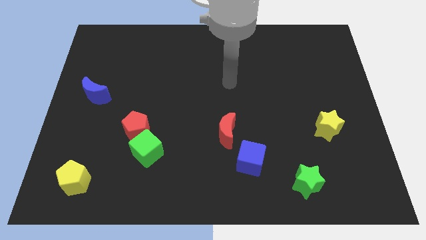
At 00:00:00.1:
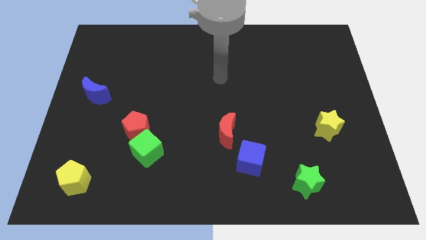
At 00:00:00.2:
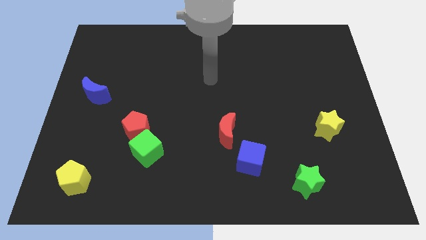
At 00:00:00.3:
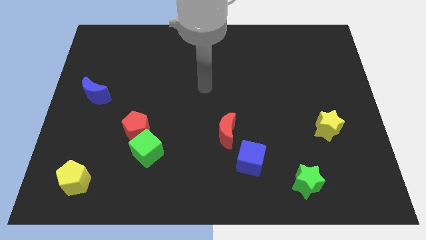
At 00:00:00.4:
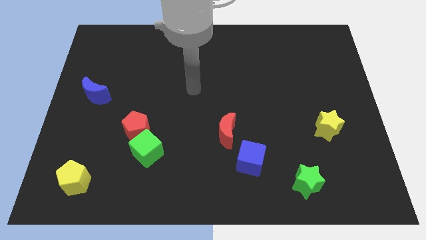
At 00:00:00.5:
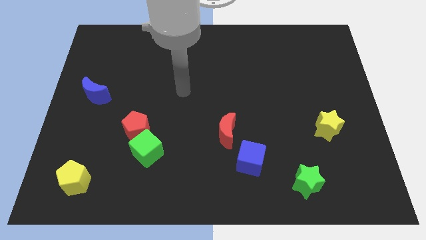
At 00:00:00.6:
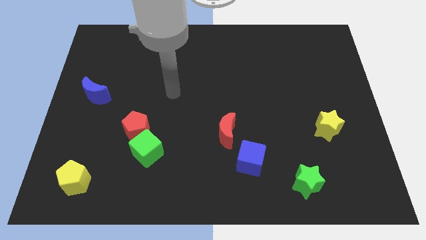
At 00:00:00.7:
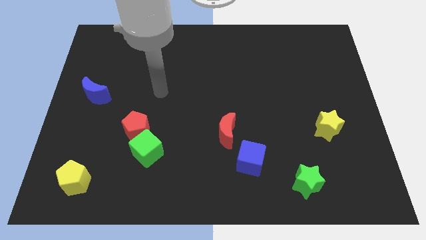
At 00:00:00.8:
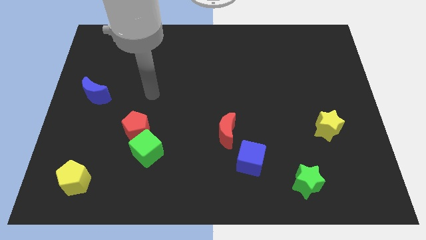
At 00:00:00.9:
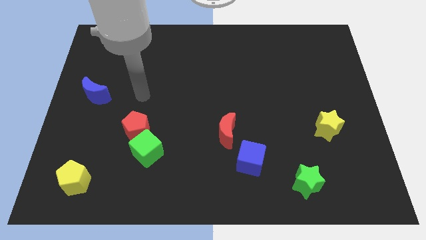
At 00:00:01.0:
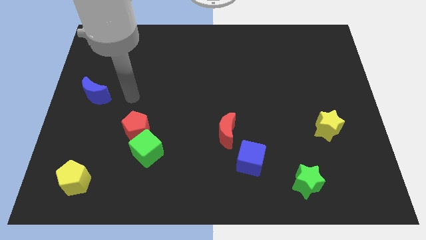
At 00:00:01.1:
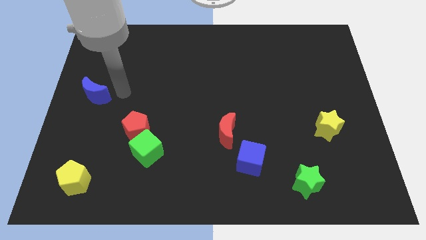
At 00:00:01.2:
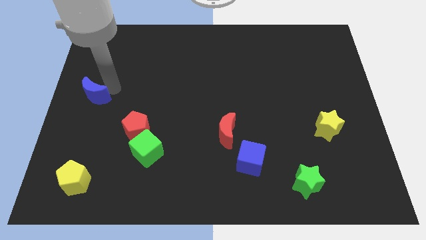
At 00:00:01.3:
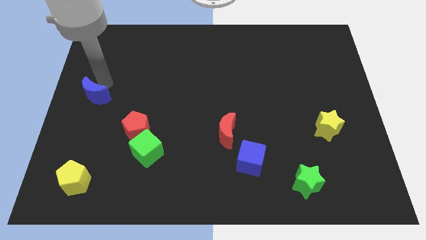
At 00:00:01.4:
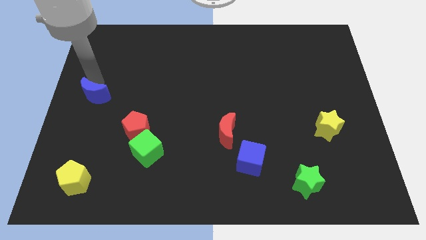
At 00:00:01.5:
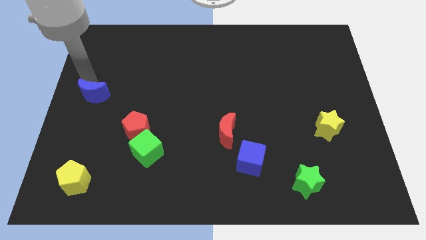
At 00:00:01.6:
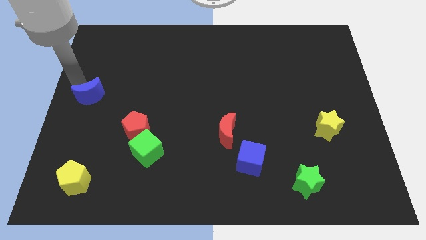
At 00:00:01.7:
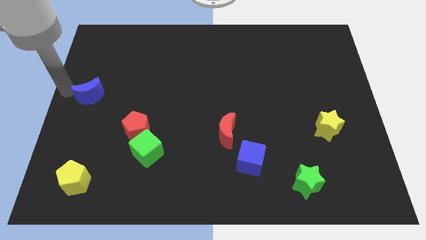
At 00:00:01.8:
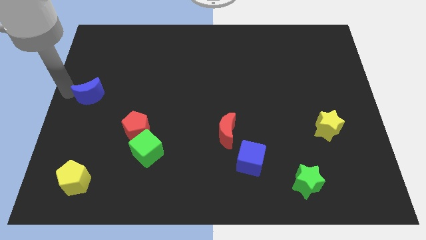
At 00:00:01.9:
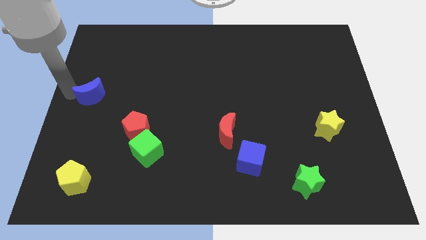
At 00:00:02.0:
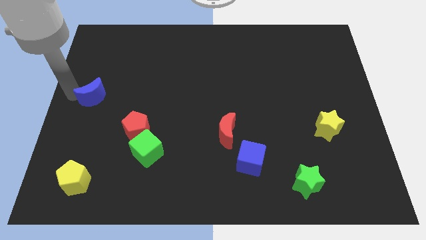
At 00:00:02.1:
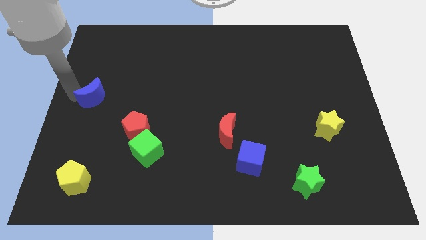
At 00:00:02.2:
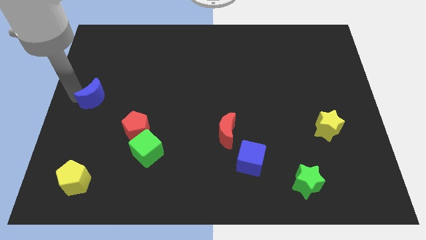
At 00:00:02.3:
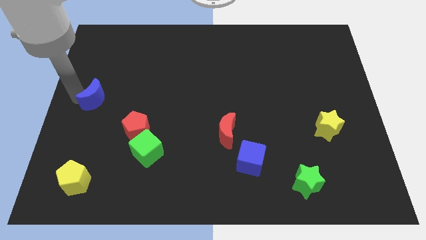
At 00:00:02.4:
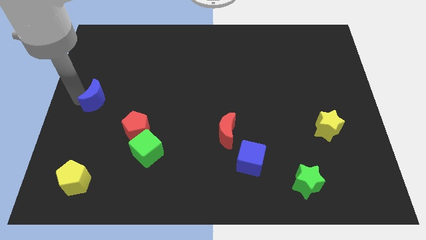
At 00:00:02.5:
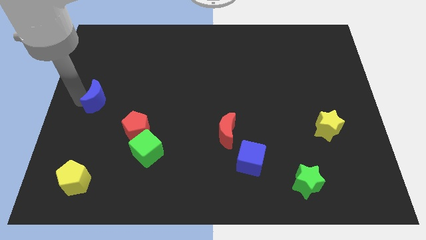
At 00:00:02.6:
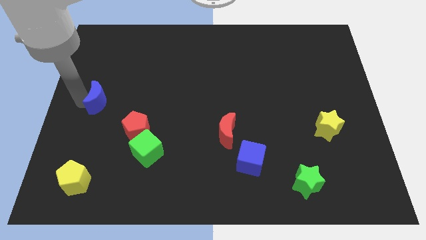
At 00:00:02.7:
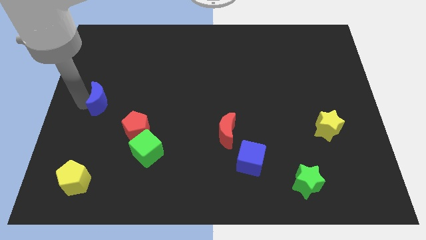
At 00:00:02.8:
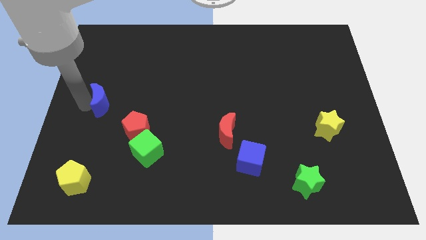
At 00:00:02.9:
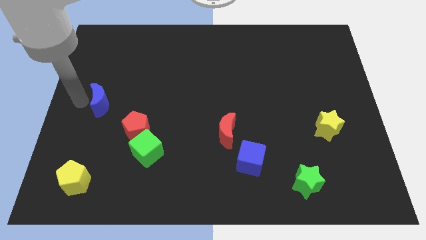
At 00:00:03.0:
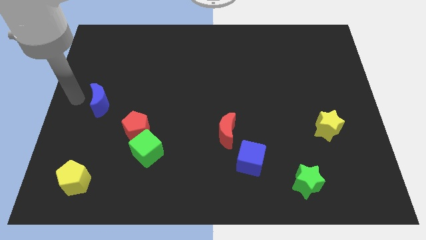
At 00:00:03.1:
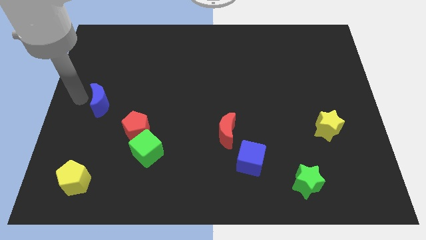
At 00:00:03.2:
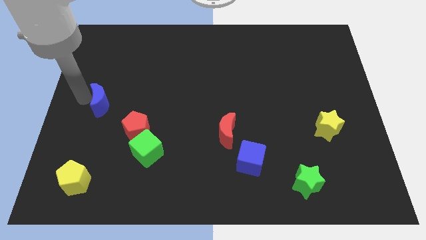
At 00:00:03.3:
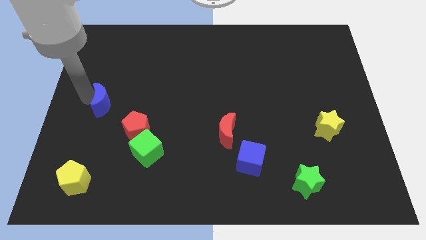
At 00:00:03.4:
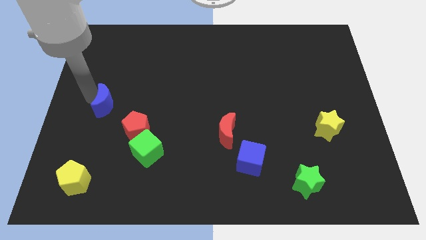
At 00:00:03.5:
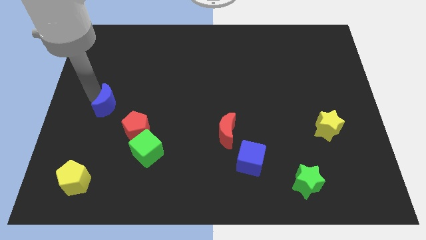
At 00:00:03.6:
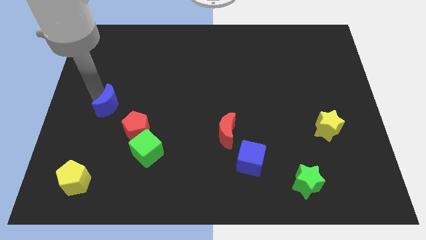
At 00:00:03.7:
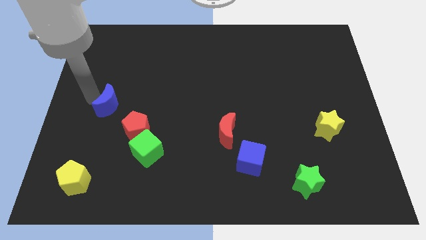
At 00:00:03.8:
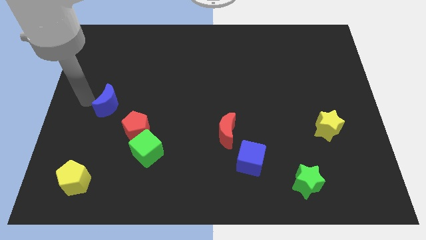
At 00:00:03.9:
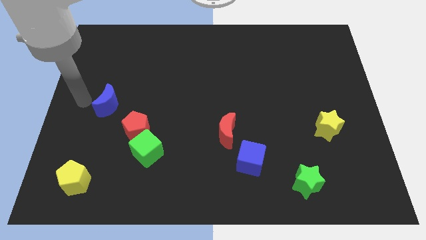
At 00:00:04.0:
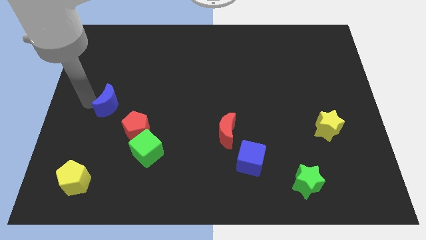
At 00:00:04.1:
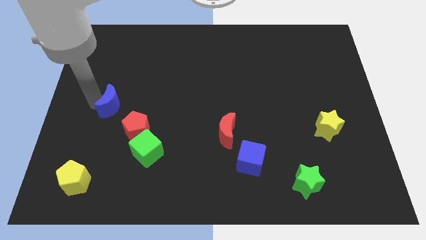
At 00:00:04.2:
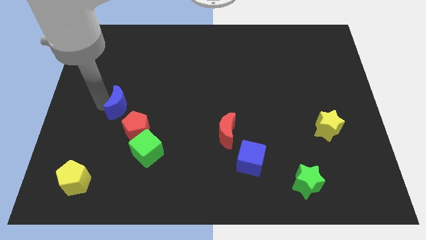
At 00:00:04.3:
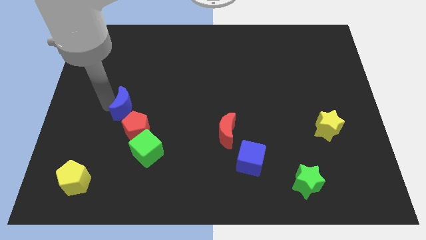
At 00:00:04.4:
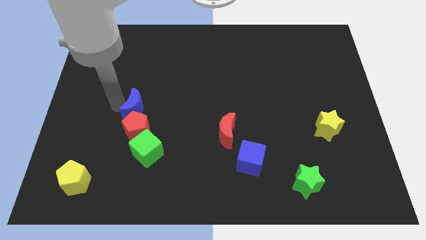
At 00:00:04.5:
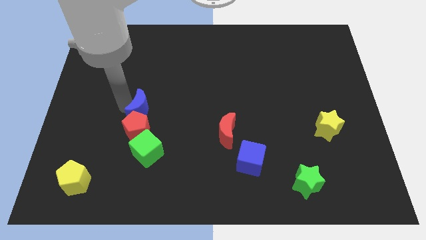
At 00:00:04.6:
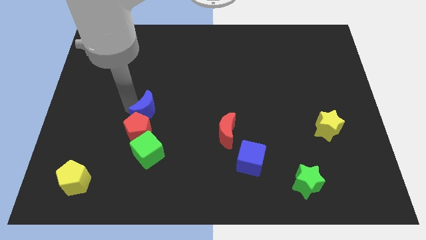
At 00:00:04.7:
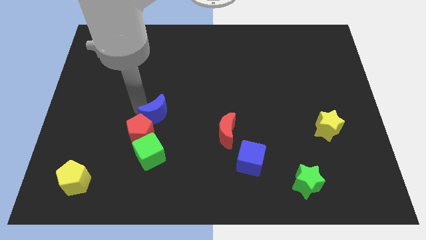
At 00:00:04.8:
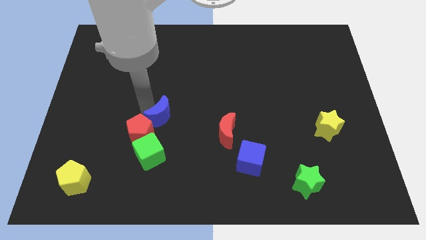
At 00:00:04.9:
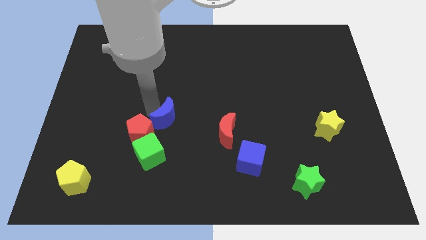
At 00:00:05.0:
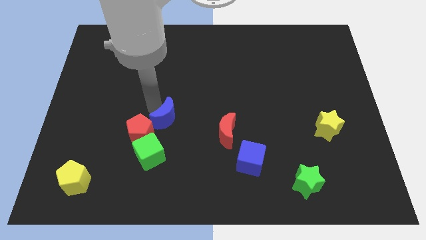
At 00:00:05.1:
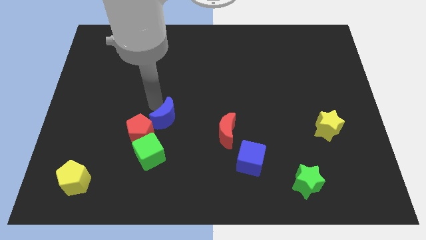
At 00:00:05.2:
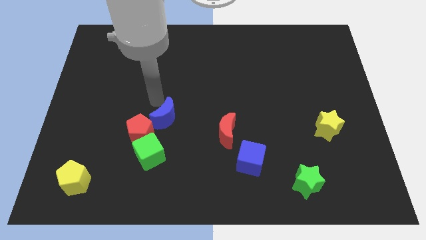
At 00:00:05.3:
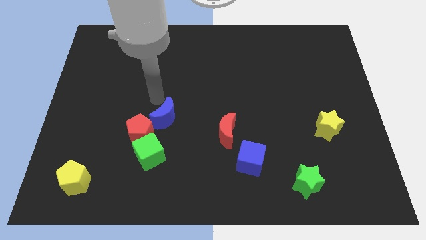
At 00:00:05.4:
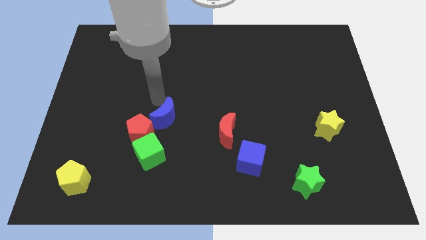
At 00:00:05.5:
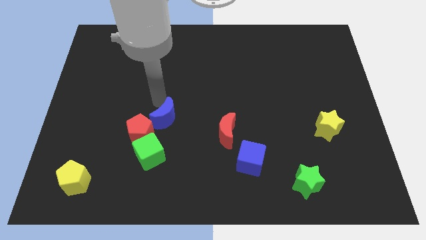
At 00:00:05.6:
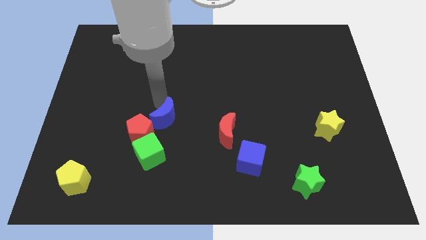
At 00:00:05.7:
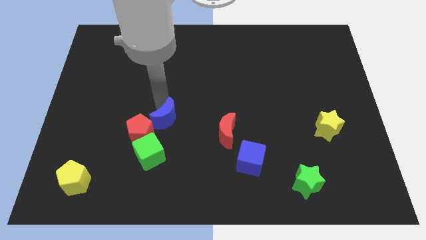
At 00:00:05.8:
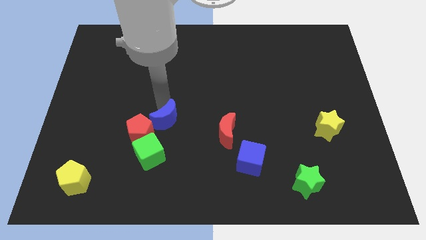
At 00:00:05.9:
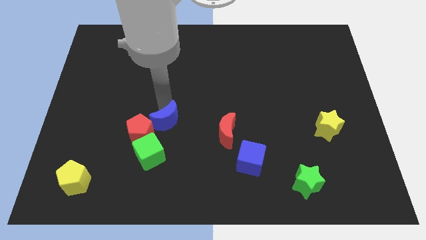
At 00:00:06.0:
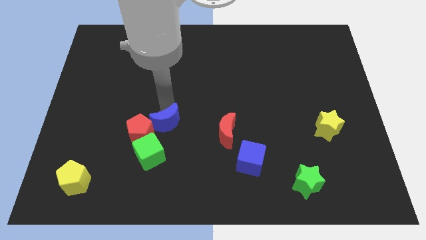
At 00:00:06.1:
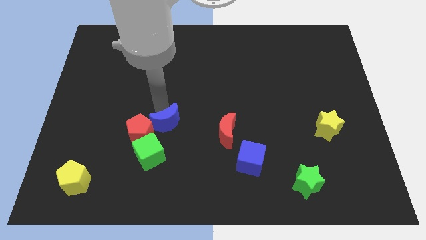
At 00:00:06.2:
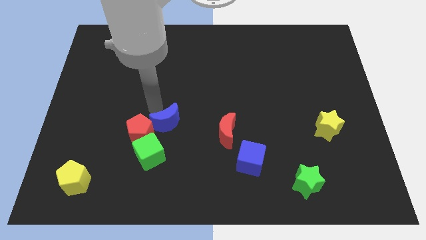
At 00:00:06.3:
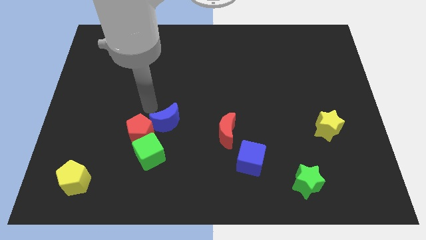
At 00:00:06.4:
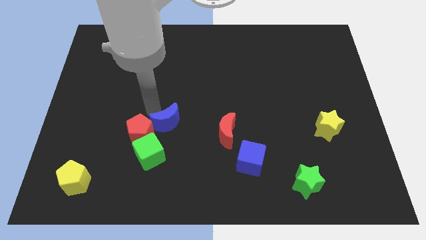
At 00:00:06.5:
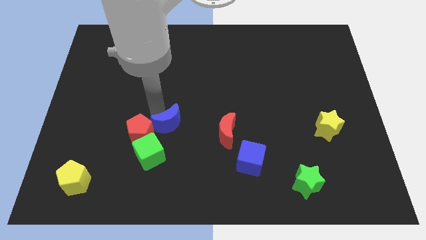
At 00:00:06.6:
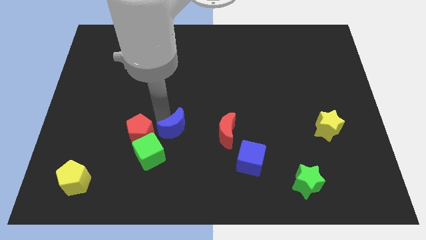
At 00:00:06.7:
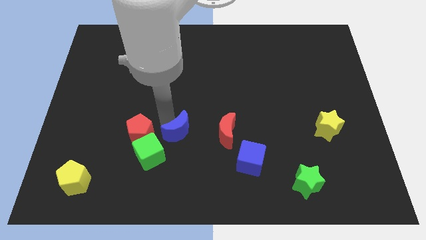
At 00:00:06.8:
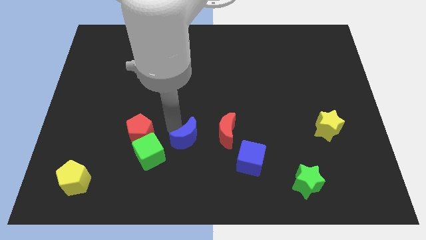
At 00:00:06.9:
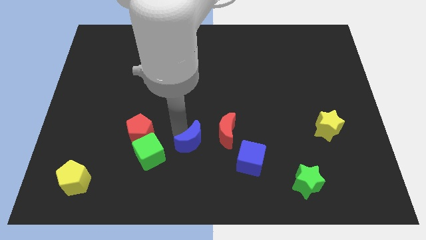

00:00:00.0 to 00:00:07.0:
move the blue moon diagonally down and to the left of the red moon

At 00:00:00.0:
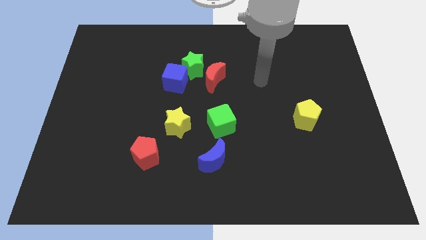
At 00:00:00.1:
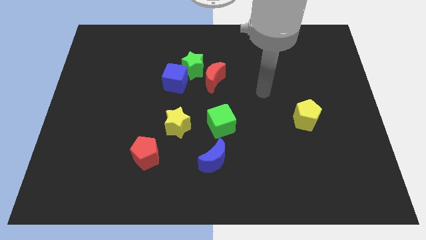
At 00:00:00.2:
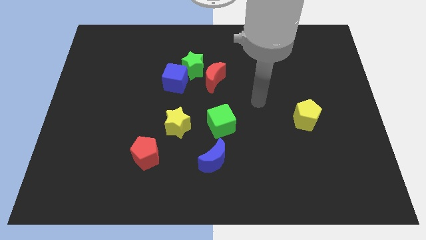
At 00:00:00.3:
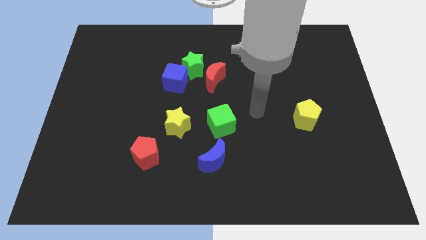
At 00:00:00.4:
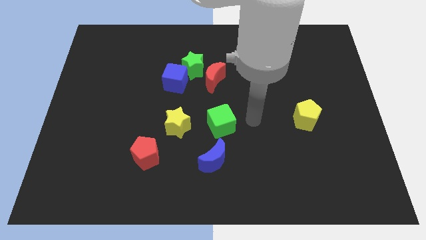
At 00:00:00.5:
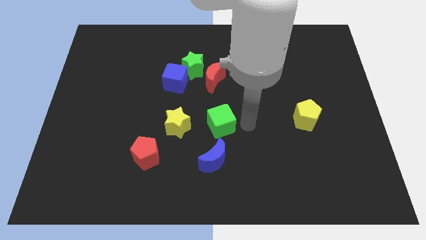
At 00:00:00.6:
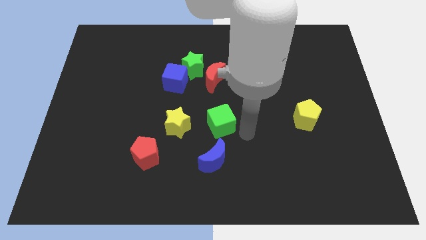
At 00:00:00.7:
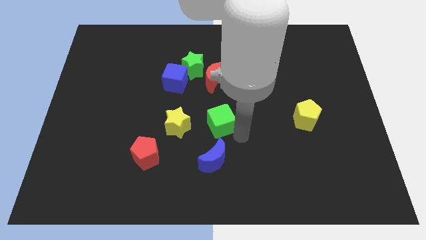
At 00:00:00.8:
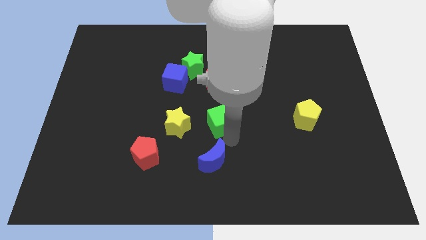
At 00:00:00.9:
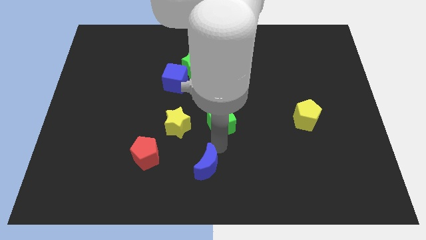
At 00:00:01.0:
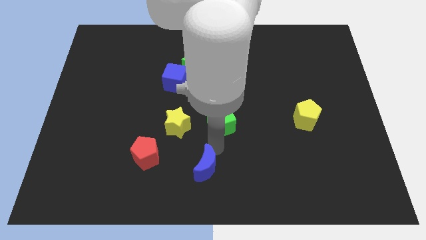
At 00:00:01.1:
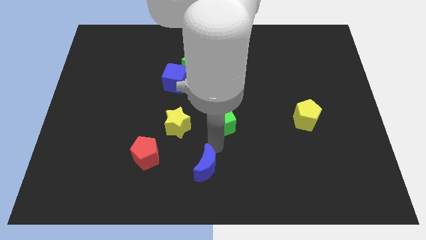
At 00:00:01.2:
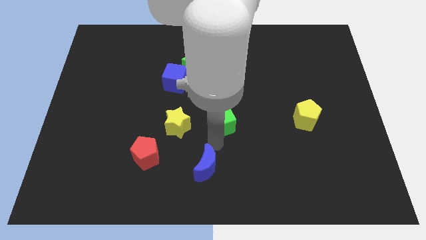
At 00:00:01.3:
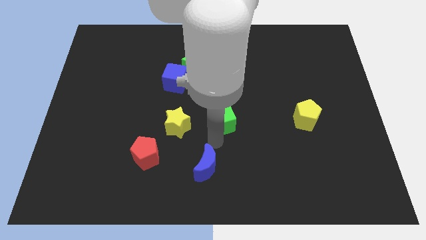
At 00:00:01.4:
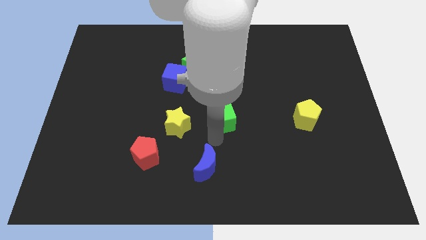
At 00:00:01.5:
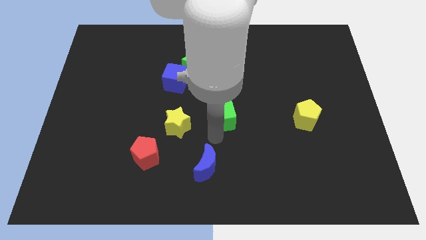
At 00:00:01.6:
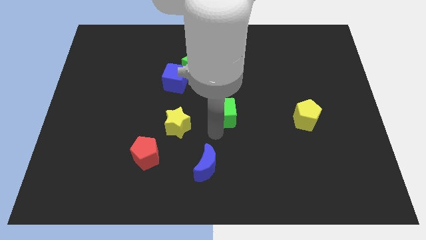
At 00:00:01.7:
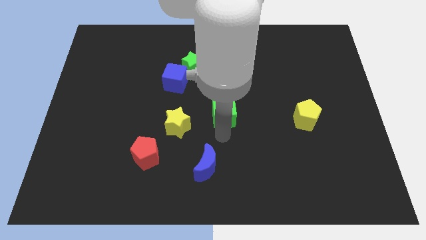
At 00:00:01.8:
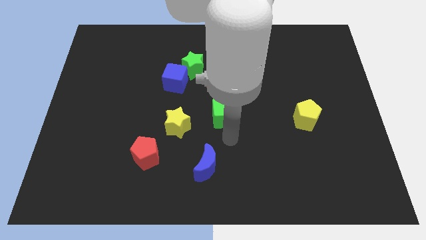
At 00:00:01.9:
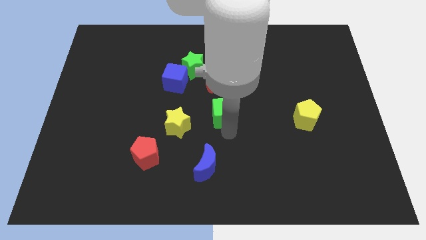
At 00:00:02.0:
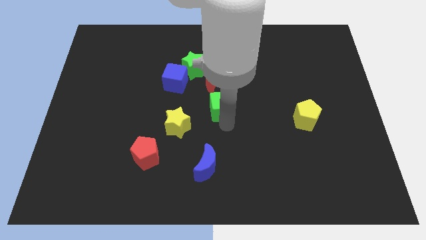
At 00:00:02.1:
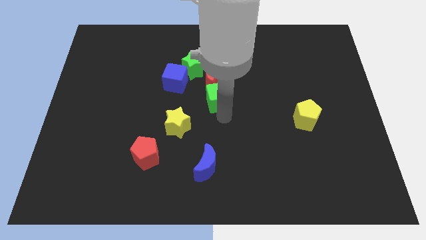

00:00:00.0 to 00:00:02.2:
put the green cube diagonally down and to the right of the green star
